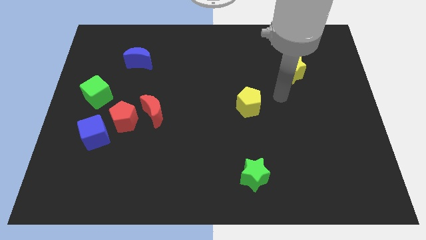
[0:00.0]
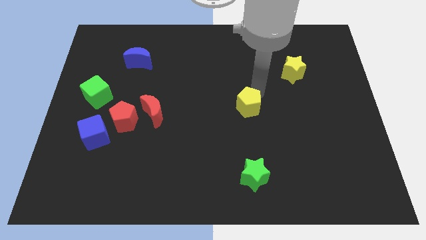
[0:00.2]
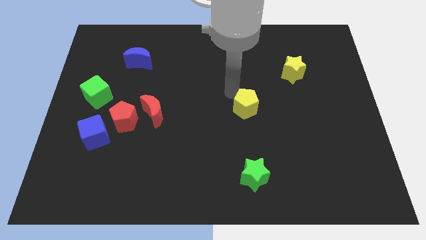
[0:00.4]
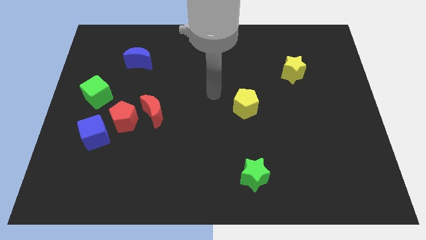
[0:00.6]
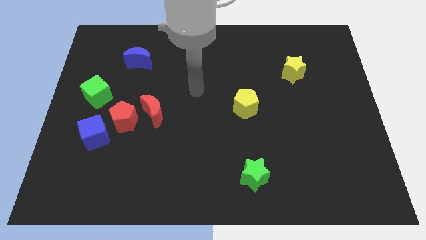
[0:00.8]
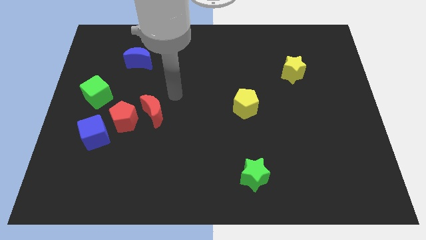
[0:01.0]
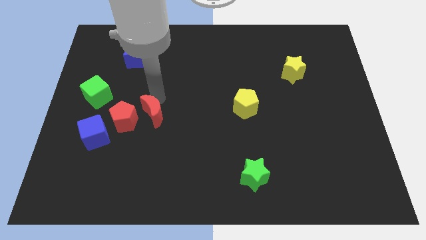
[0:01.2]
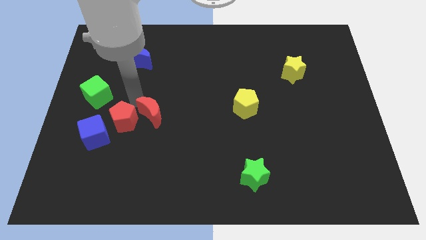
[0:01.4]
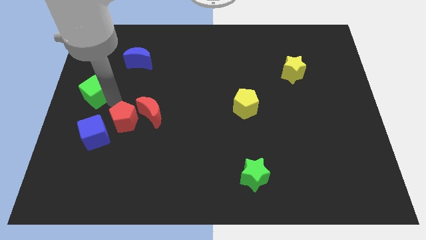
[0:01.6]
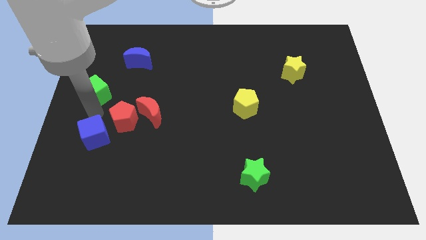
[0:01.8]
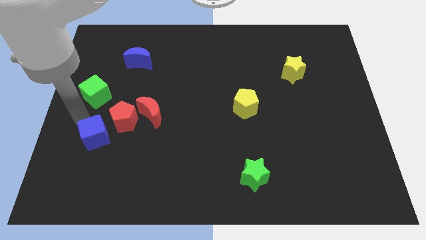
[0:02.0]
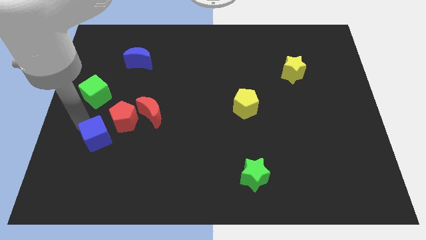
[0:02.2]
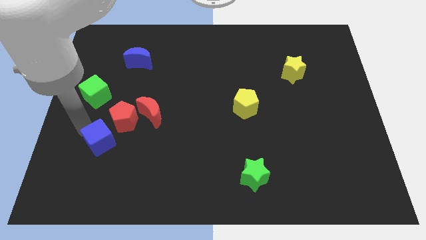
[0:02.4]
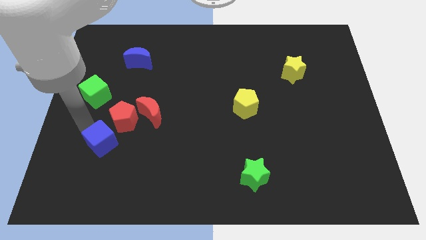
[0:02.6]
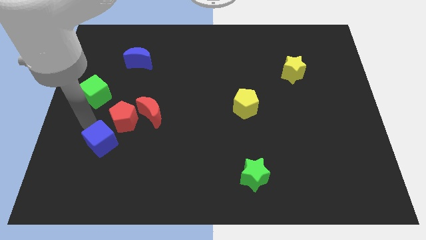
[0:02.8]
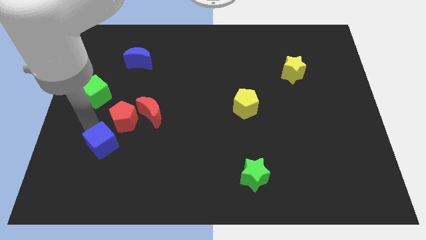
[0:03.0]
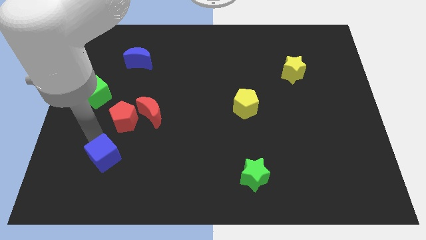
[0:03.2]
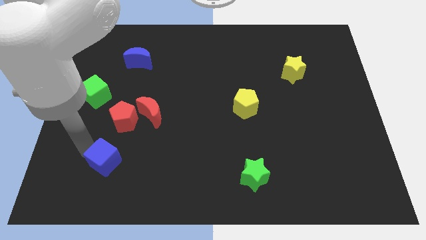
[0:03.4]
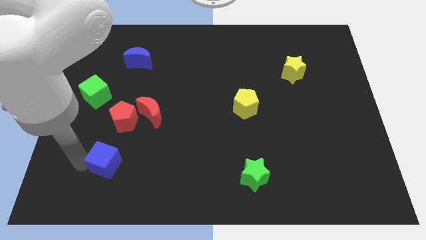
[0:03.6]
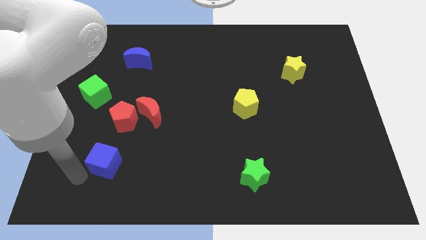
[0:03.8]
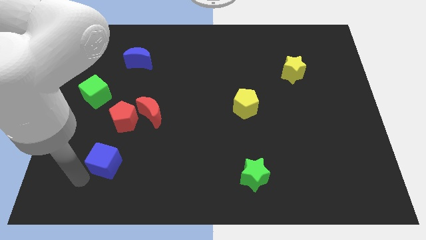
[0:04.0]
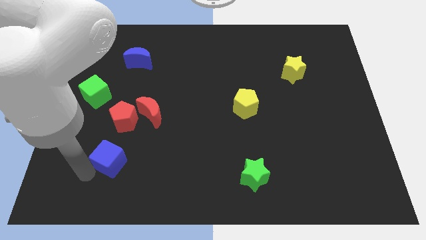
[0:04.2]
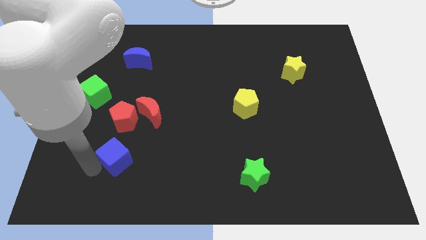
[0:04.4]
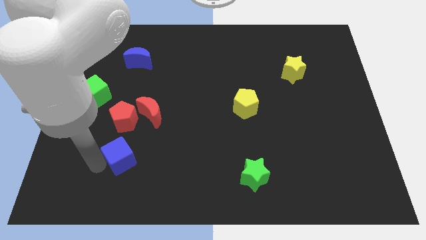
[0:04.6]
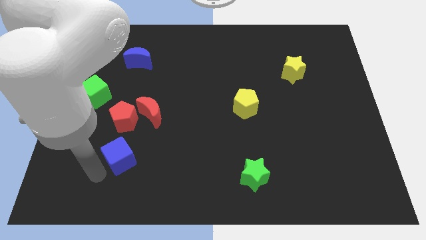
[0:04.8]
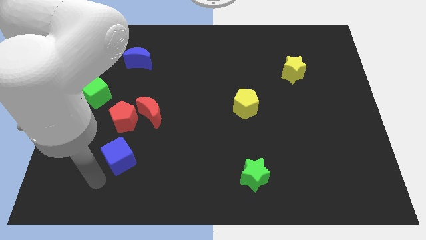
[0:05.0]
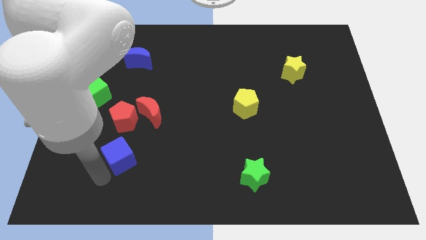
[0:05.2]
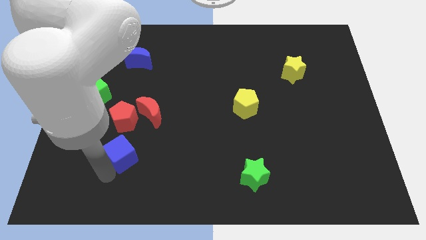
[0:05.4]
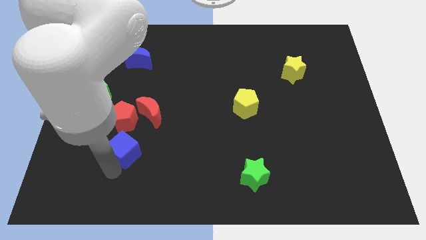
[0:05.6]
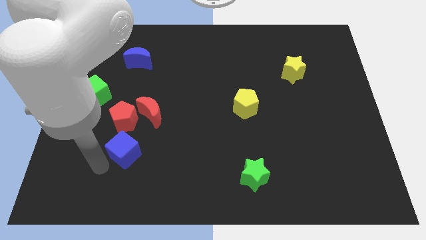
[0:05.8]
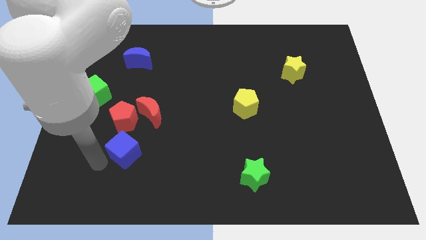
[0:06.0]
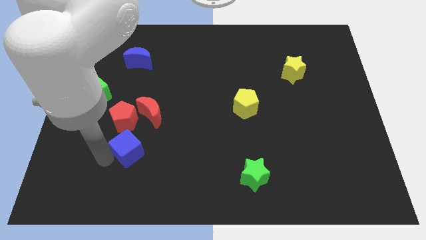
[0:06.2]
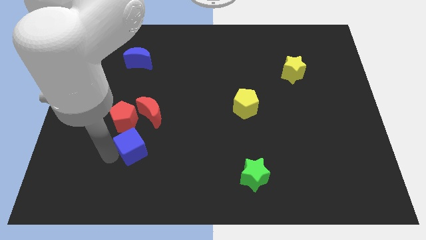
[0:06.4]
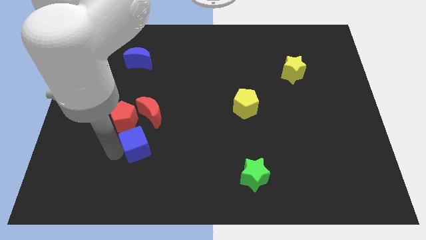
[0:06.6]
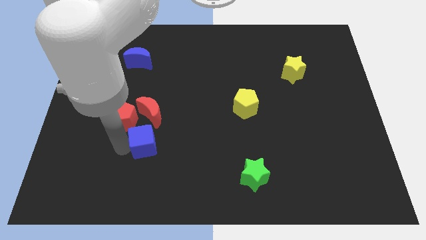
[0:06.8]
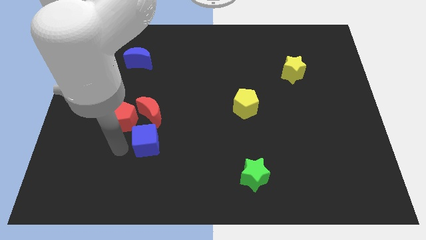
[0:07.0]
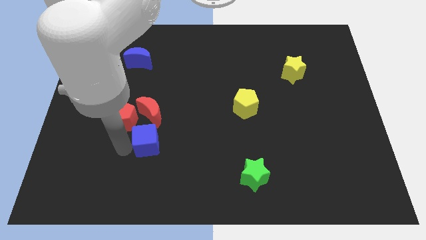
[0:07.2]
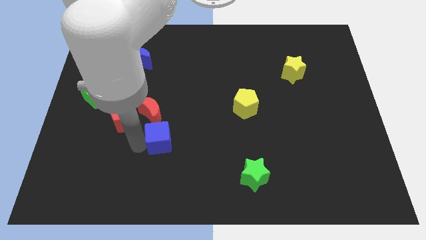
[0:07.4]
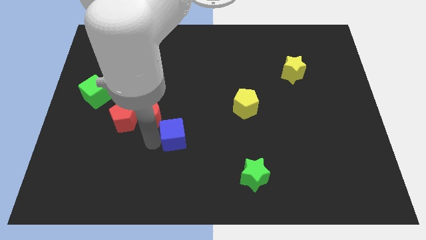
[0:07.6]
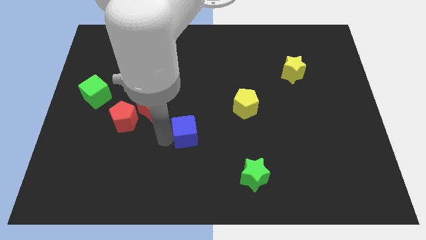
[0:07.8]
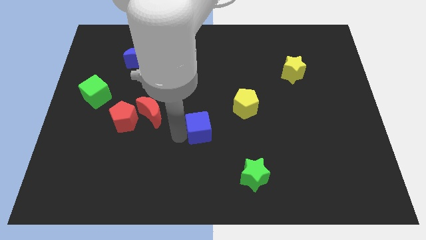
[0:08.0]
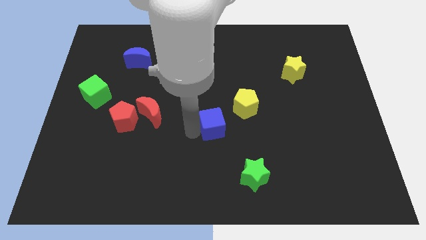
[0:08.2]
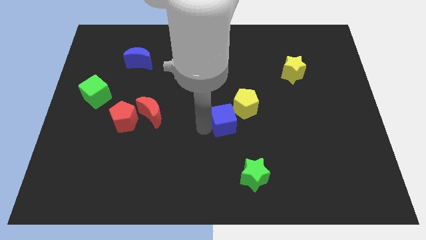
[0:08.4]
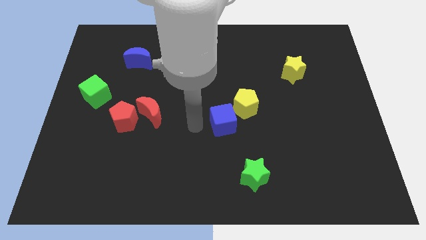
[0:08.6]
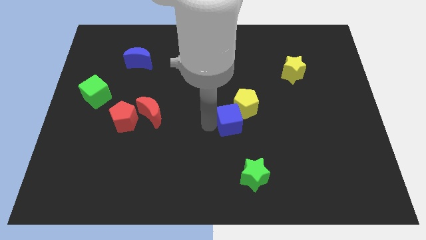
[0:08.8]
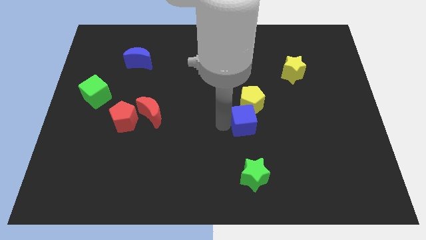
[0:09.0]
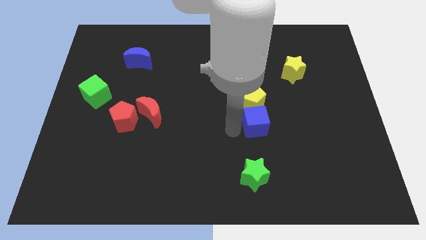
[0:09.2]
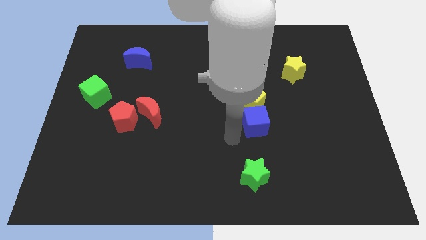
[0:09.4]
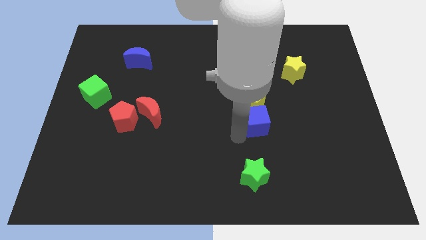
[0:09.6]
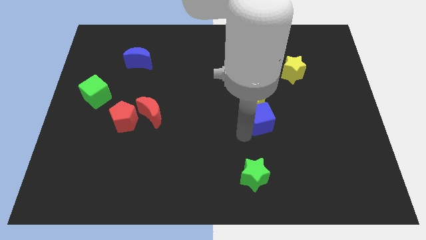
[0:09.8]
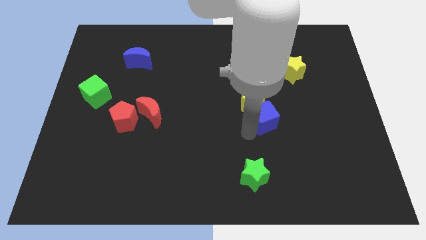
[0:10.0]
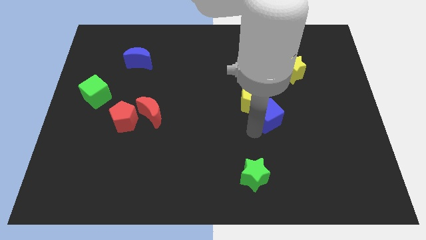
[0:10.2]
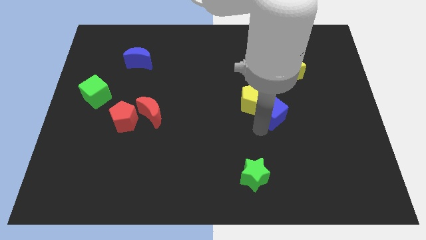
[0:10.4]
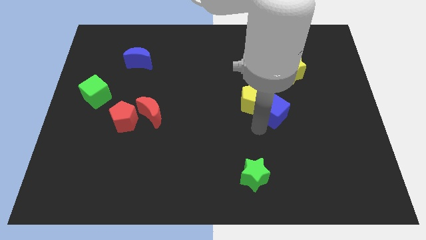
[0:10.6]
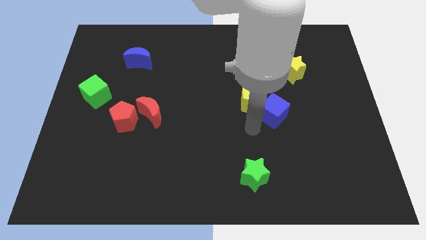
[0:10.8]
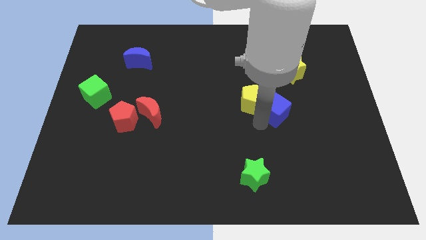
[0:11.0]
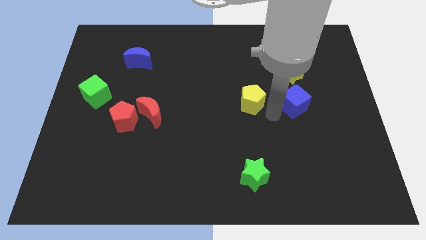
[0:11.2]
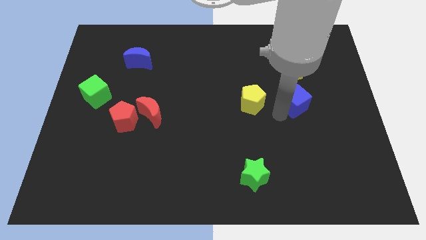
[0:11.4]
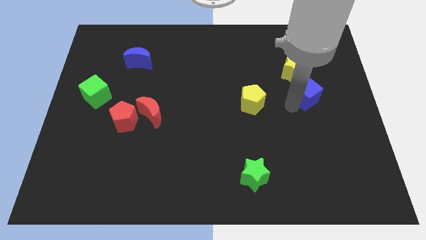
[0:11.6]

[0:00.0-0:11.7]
push the blue cube diagonally down and to the right of the yellow star

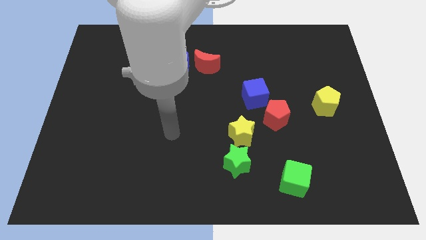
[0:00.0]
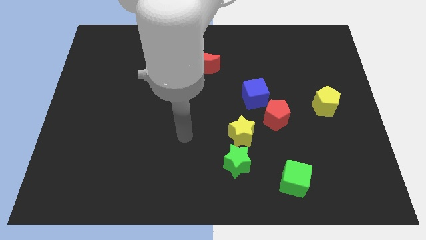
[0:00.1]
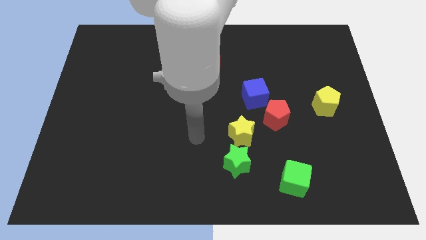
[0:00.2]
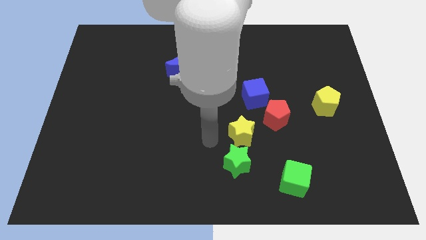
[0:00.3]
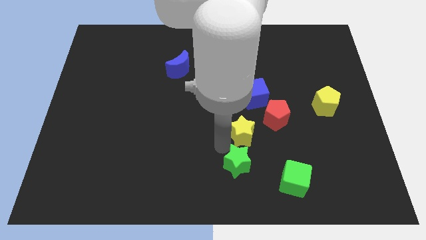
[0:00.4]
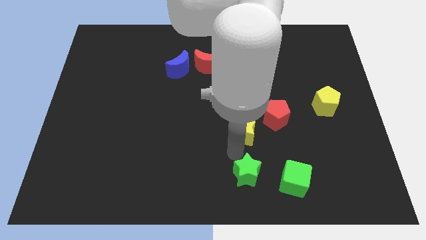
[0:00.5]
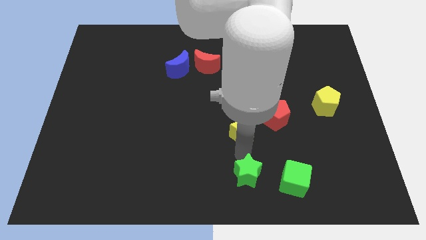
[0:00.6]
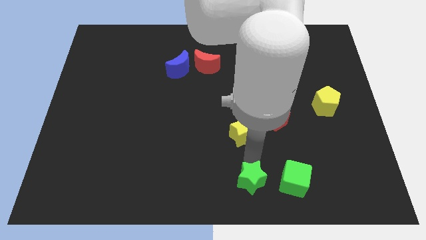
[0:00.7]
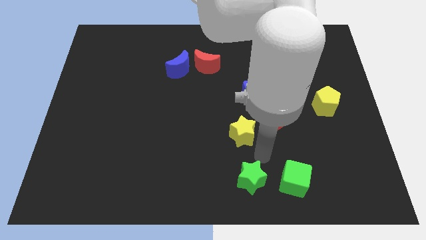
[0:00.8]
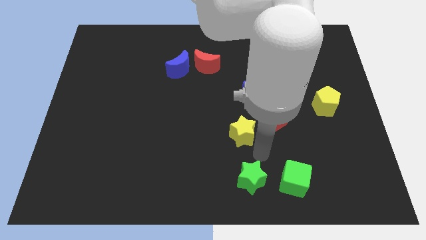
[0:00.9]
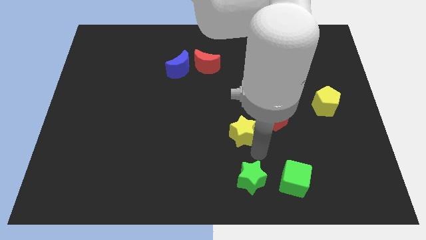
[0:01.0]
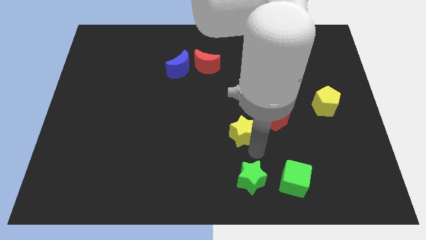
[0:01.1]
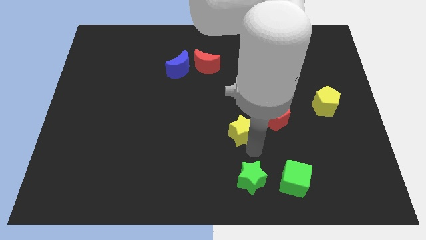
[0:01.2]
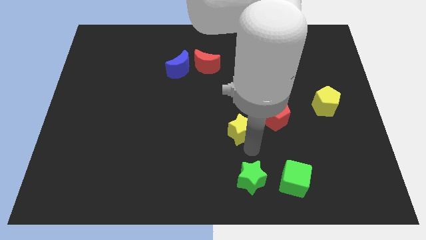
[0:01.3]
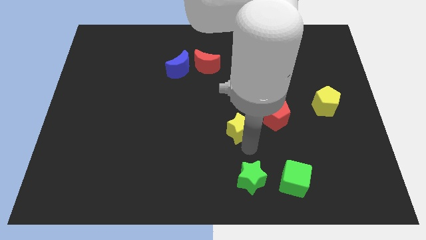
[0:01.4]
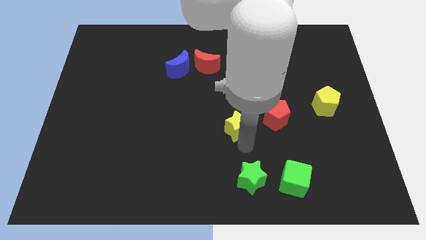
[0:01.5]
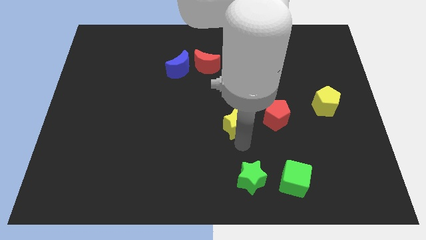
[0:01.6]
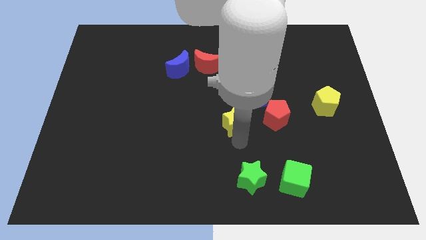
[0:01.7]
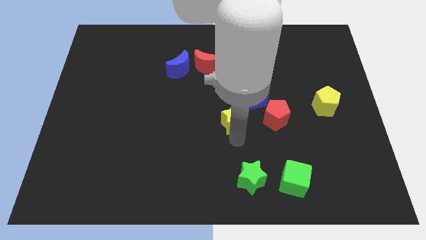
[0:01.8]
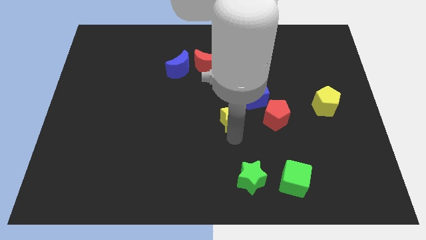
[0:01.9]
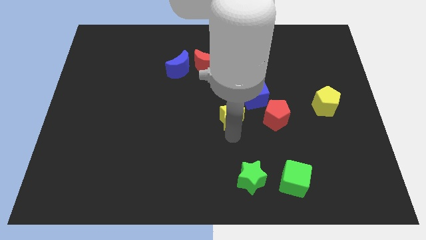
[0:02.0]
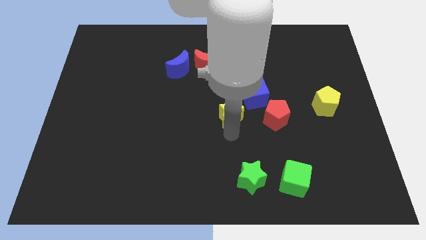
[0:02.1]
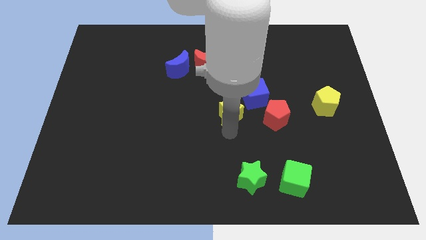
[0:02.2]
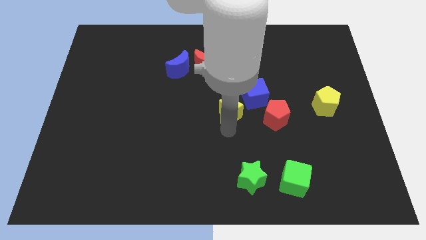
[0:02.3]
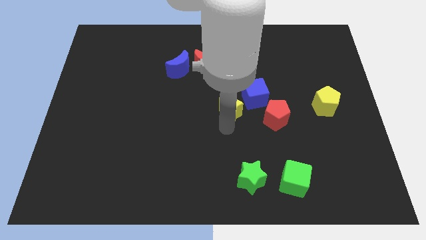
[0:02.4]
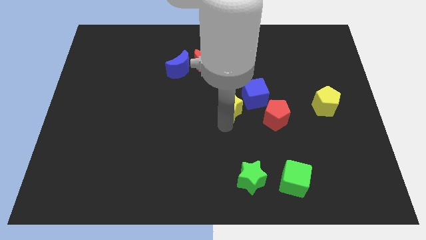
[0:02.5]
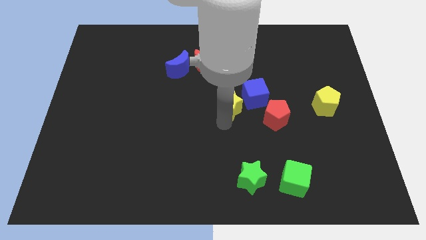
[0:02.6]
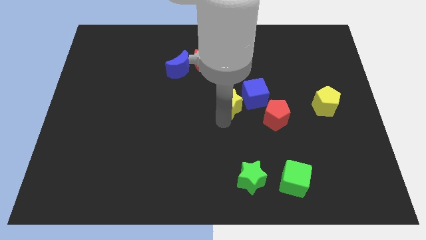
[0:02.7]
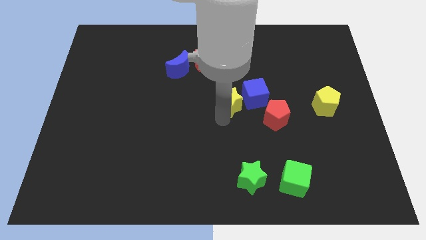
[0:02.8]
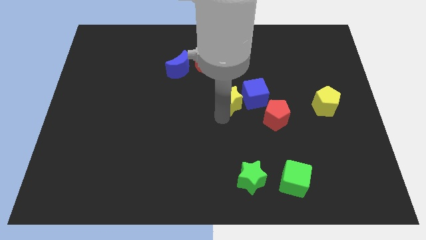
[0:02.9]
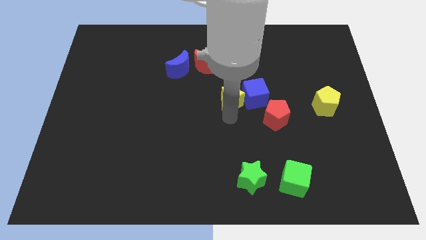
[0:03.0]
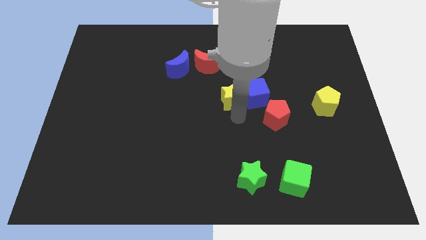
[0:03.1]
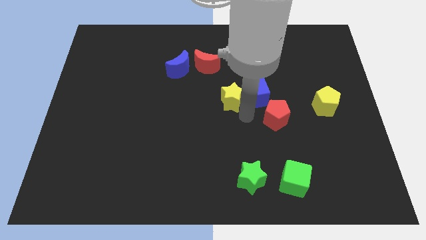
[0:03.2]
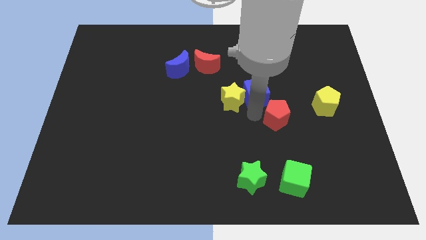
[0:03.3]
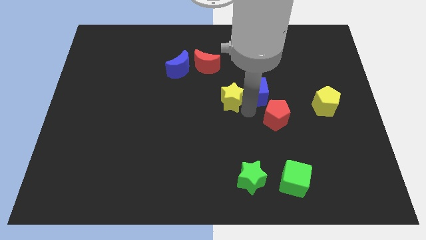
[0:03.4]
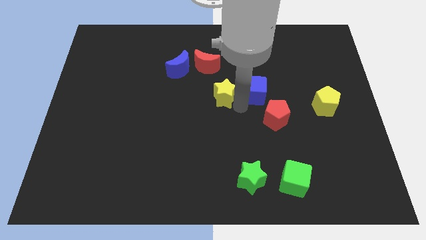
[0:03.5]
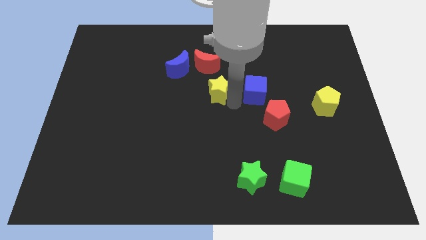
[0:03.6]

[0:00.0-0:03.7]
slide the yellow star to the bottom right side of the blue moon
